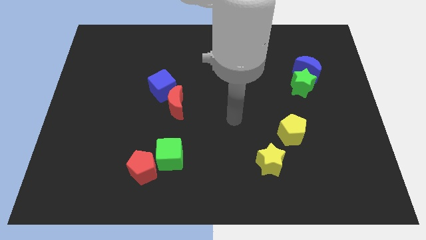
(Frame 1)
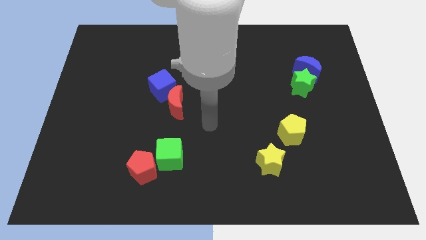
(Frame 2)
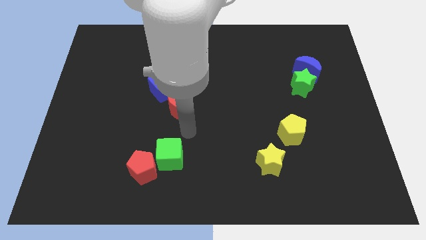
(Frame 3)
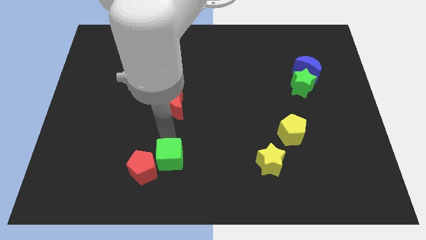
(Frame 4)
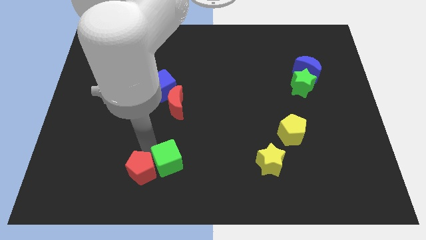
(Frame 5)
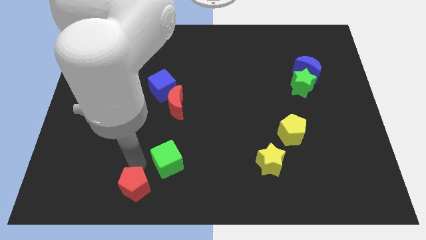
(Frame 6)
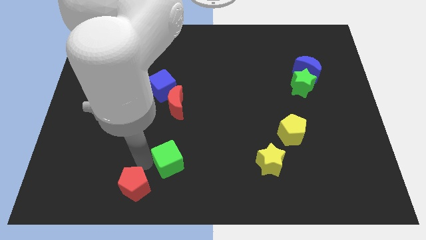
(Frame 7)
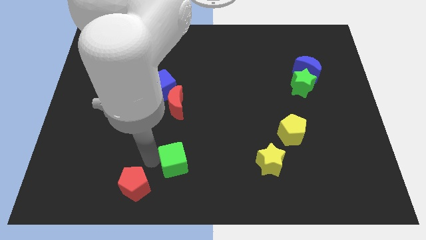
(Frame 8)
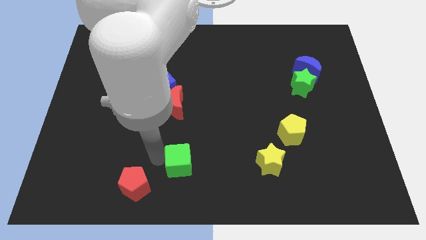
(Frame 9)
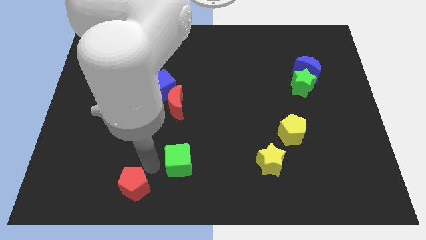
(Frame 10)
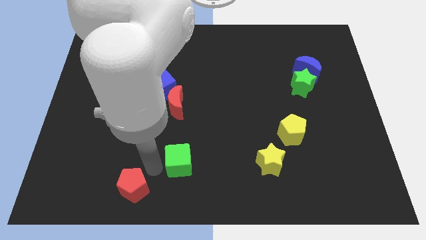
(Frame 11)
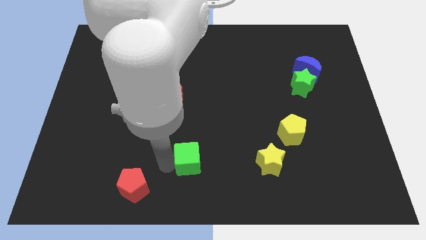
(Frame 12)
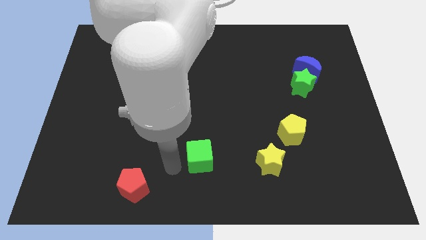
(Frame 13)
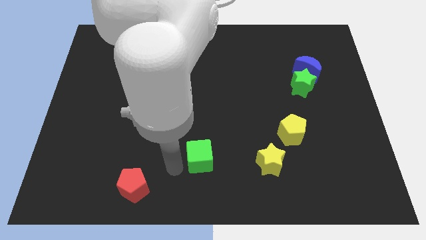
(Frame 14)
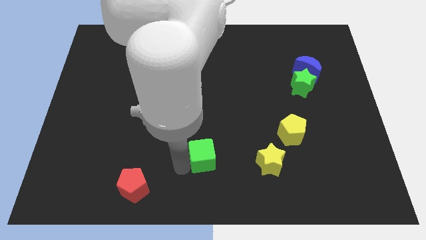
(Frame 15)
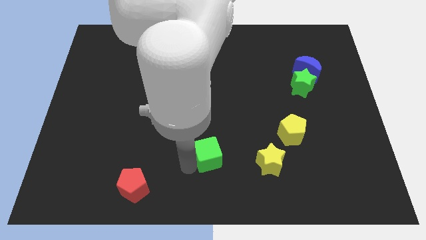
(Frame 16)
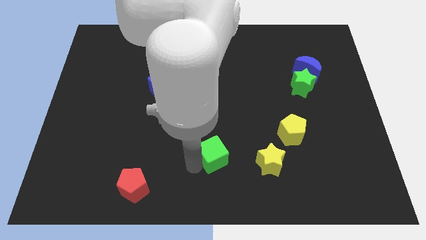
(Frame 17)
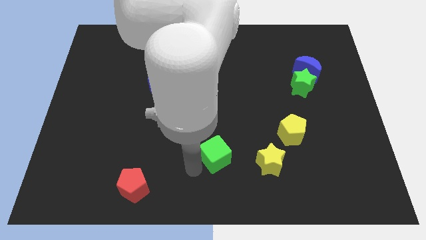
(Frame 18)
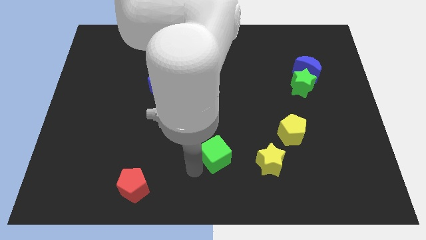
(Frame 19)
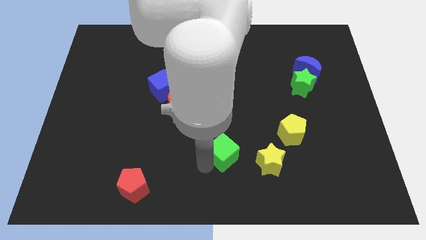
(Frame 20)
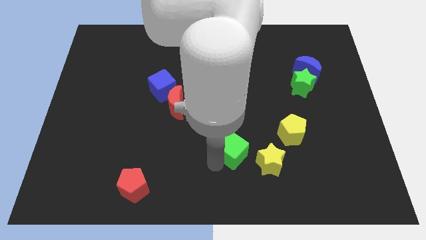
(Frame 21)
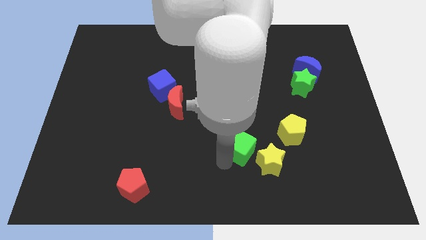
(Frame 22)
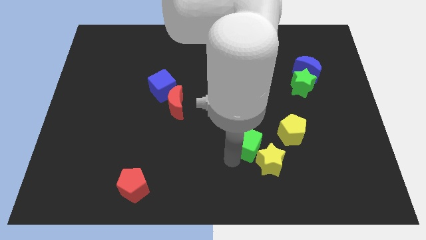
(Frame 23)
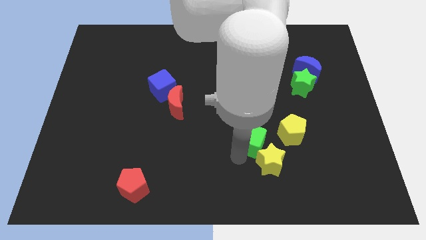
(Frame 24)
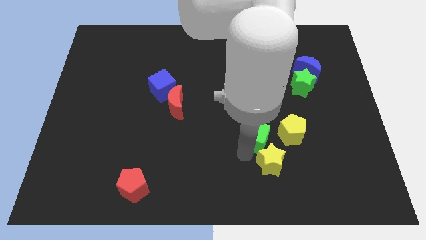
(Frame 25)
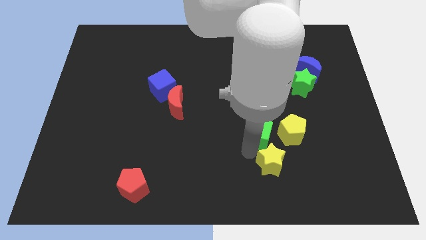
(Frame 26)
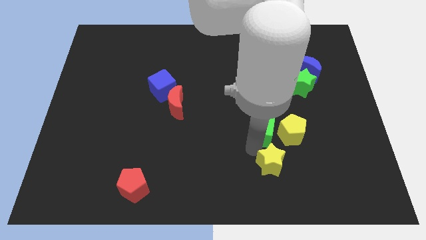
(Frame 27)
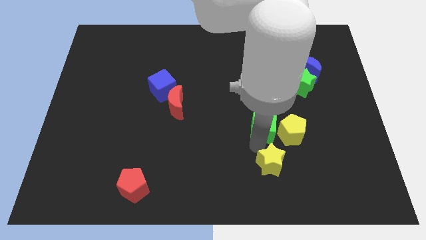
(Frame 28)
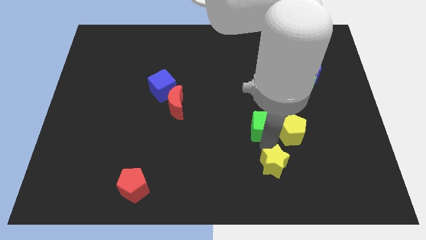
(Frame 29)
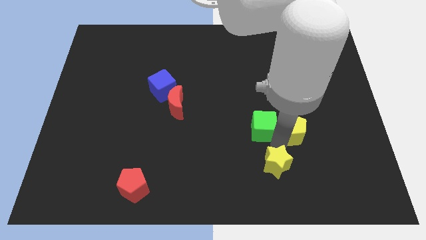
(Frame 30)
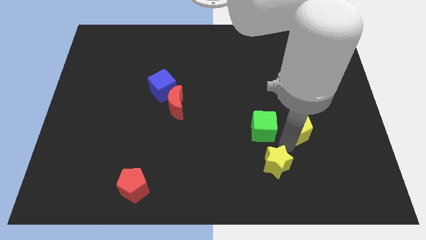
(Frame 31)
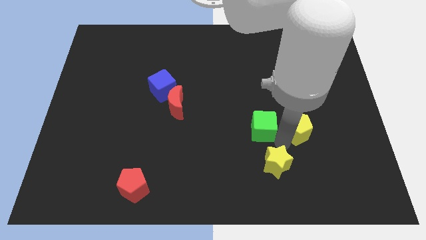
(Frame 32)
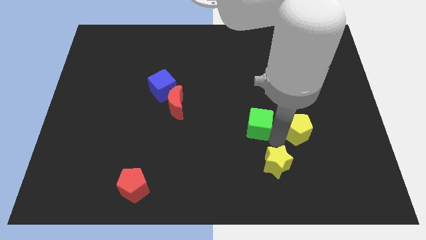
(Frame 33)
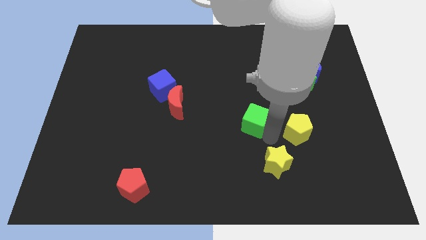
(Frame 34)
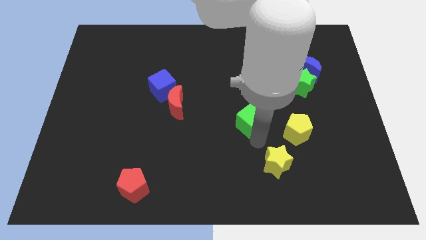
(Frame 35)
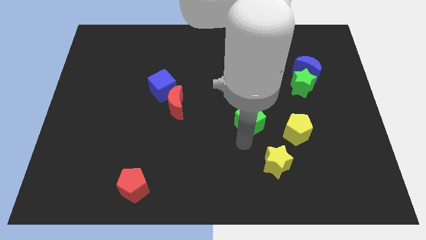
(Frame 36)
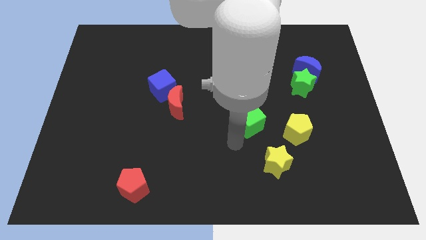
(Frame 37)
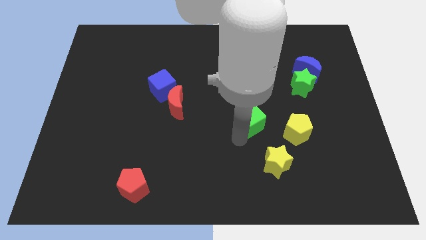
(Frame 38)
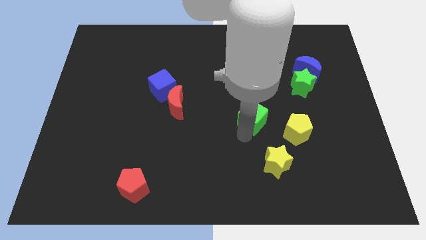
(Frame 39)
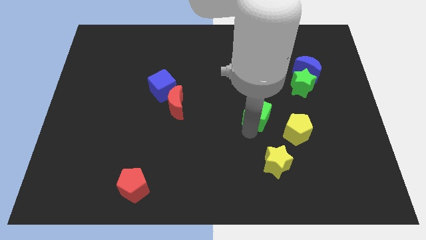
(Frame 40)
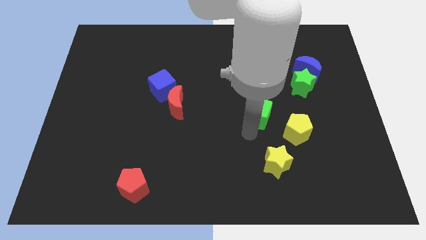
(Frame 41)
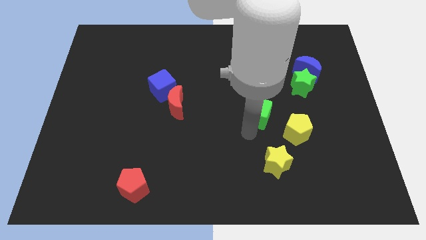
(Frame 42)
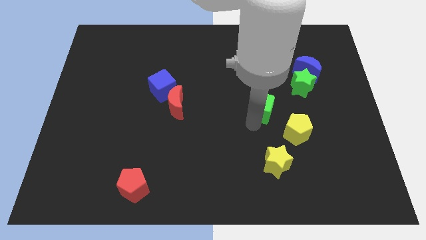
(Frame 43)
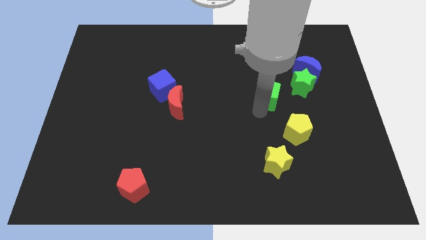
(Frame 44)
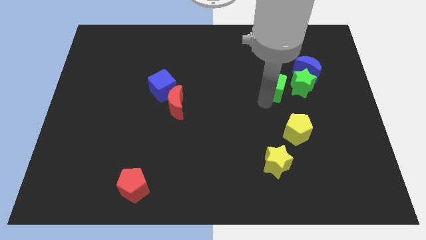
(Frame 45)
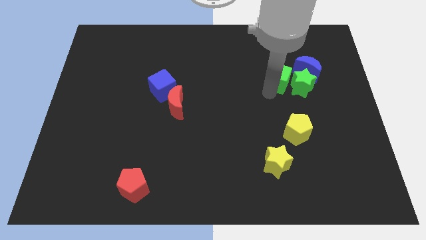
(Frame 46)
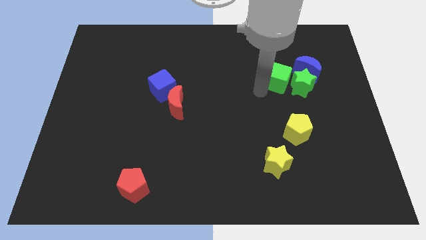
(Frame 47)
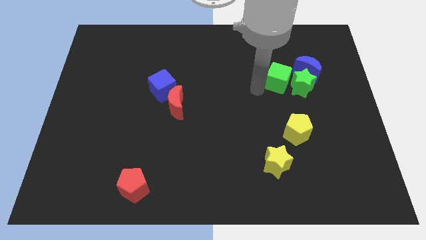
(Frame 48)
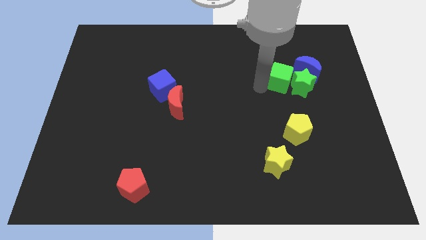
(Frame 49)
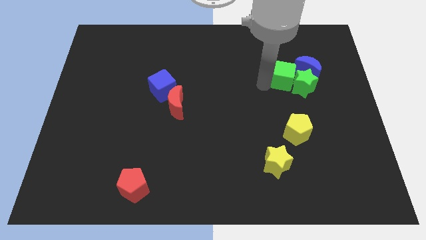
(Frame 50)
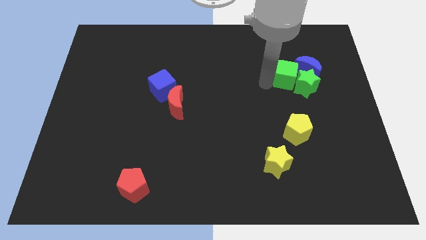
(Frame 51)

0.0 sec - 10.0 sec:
push the green cube close to the blue moon
